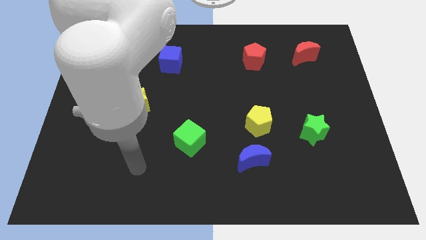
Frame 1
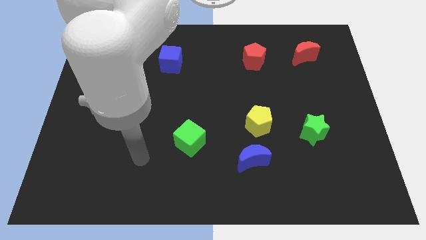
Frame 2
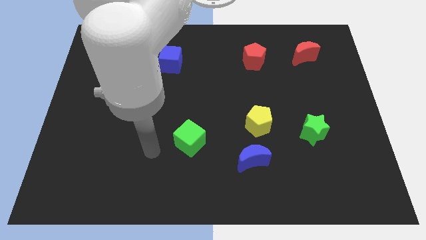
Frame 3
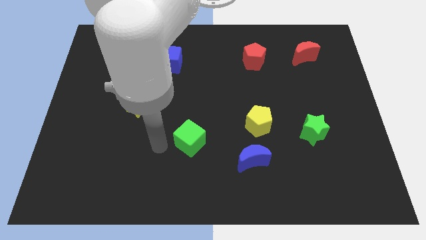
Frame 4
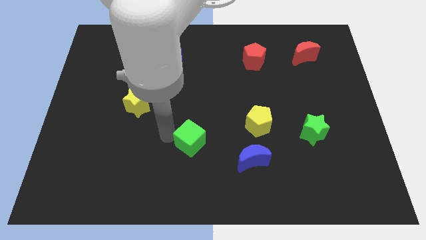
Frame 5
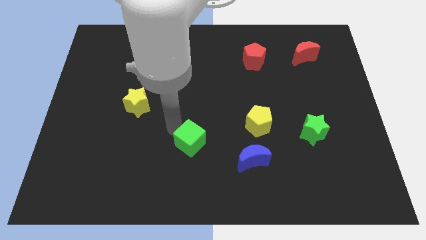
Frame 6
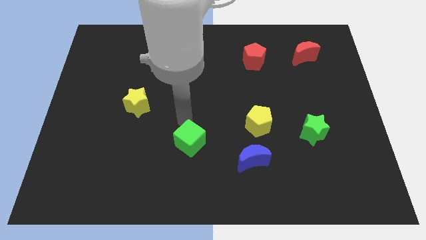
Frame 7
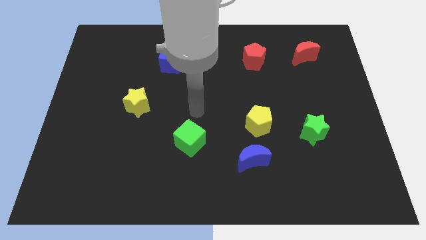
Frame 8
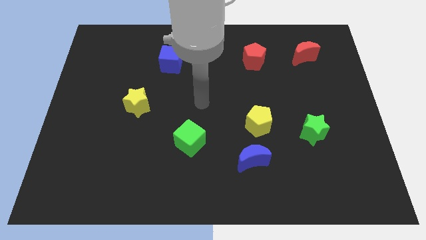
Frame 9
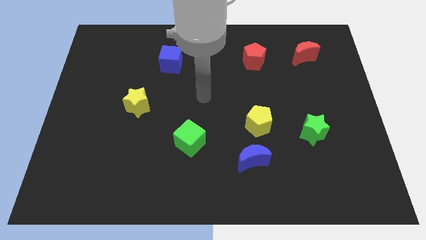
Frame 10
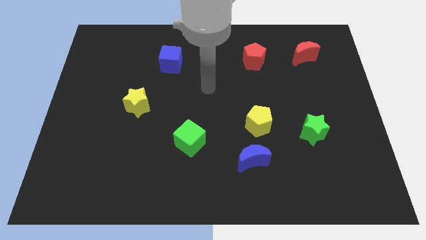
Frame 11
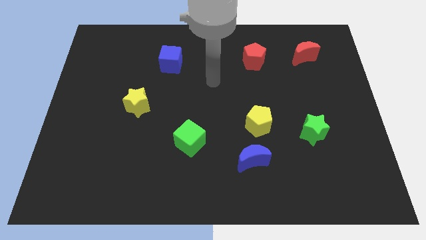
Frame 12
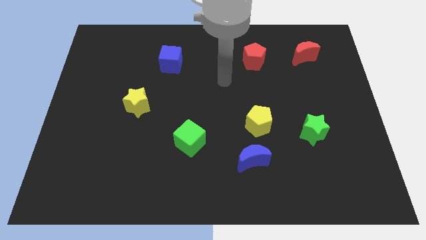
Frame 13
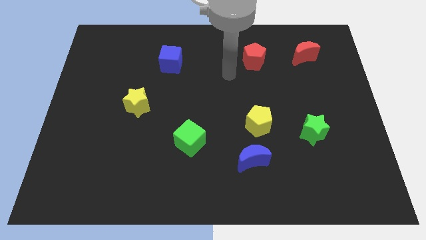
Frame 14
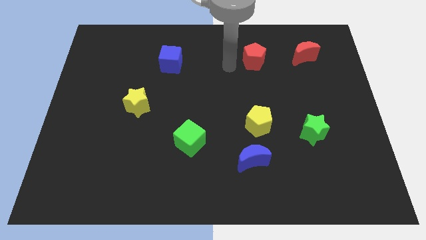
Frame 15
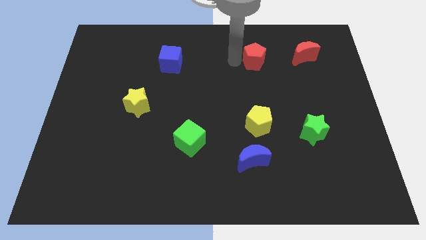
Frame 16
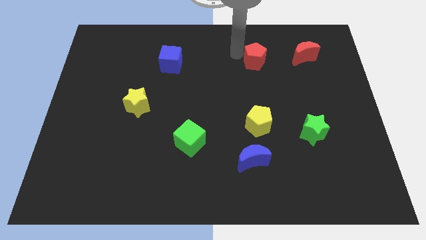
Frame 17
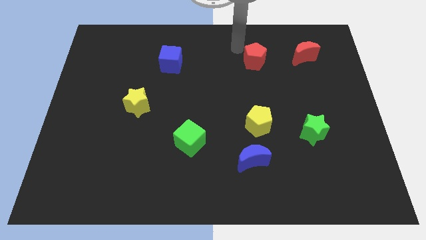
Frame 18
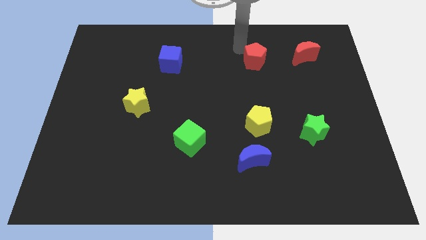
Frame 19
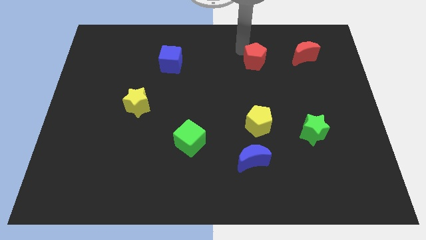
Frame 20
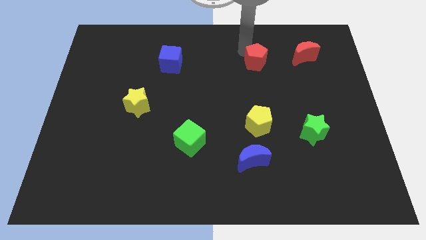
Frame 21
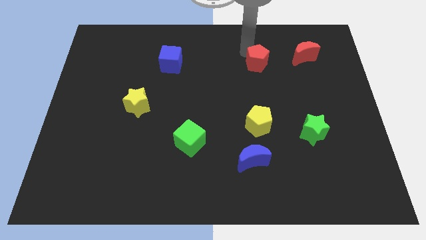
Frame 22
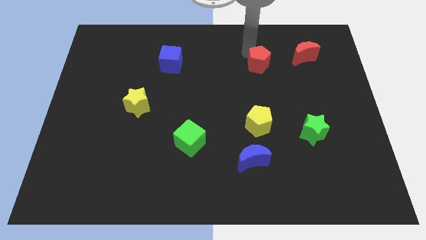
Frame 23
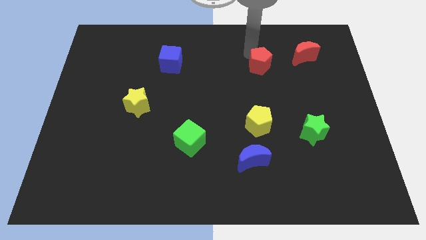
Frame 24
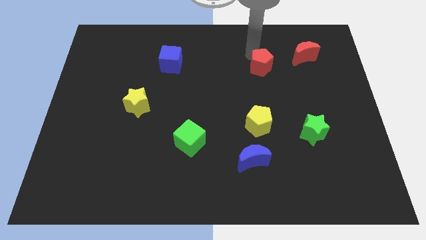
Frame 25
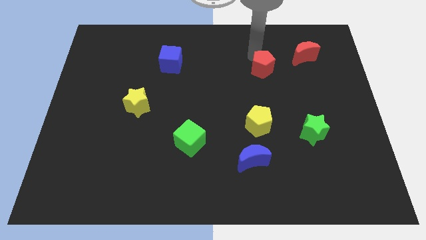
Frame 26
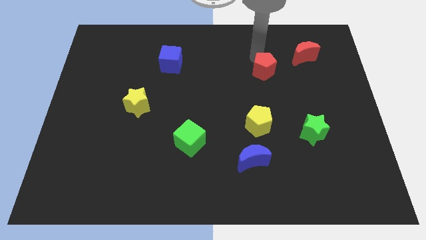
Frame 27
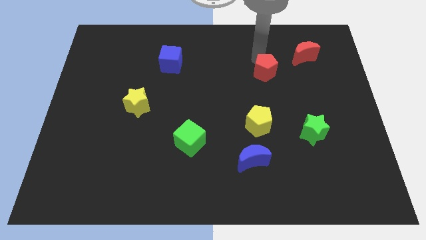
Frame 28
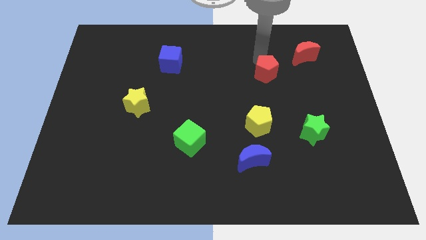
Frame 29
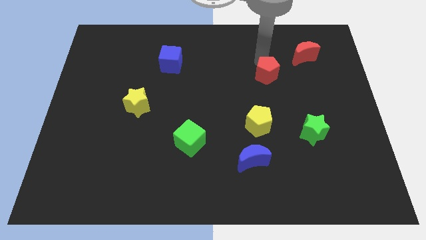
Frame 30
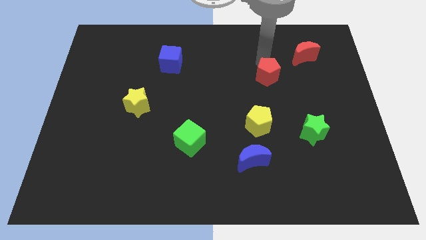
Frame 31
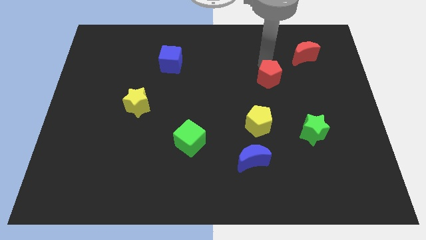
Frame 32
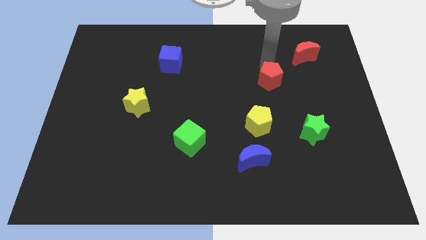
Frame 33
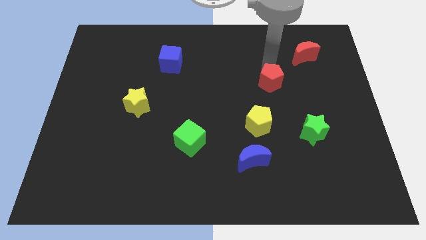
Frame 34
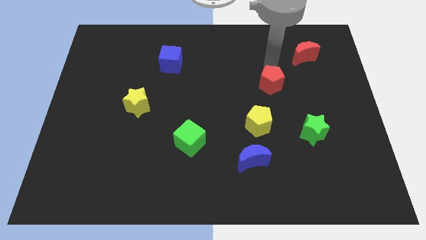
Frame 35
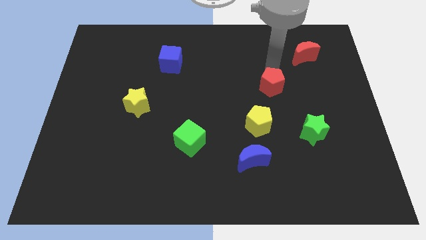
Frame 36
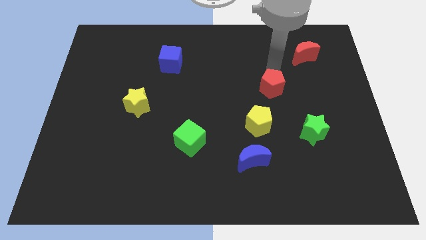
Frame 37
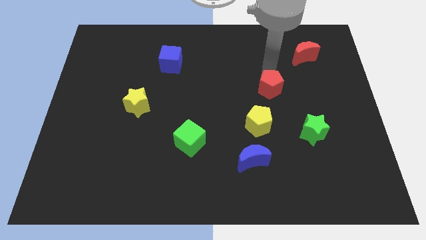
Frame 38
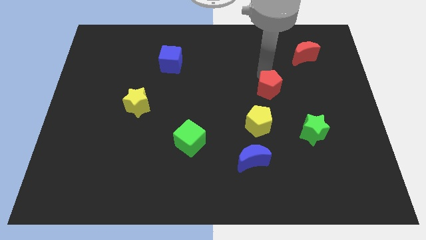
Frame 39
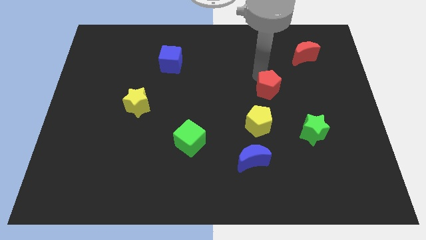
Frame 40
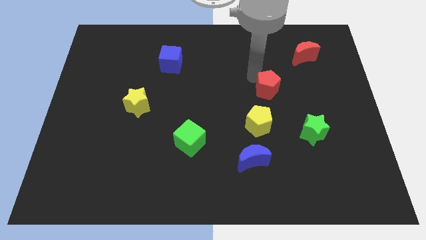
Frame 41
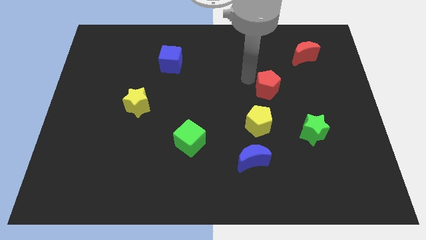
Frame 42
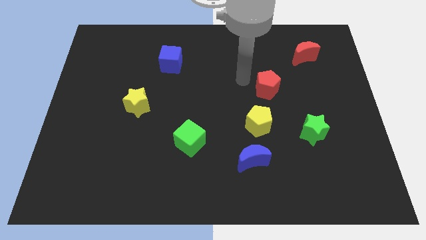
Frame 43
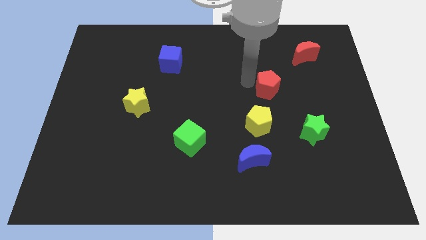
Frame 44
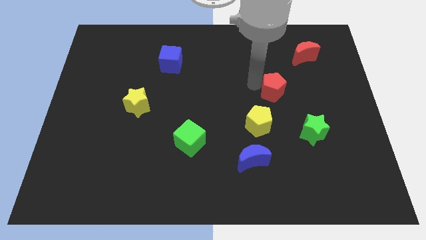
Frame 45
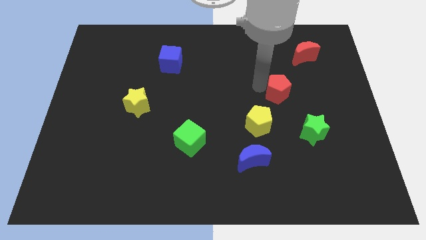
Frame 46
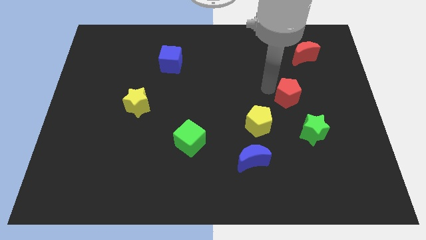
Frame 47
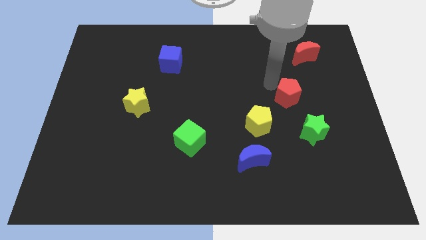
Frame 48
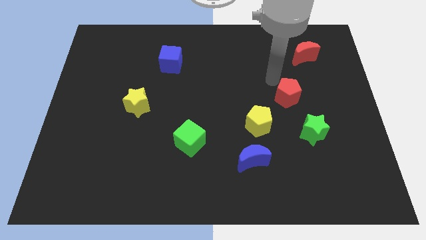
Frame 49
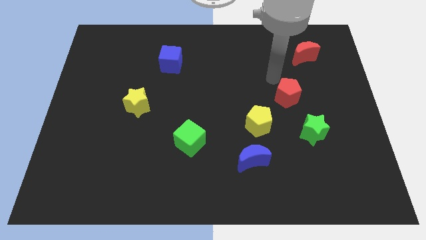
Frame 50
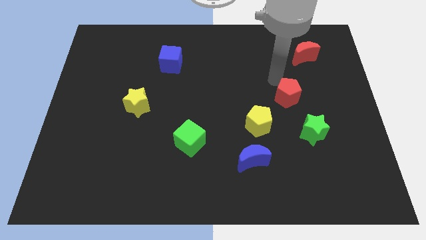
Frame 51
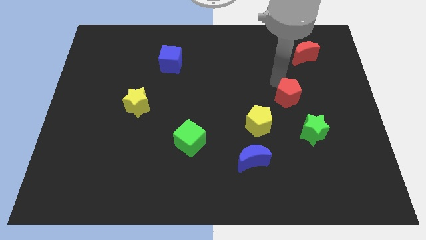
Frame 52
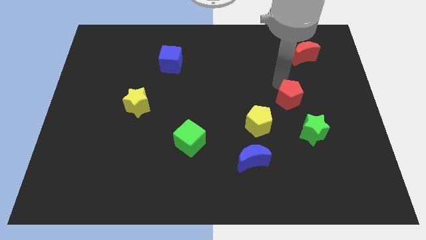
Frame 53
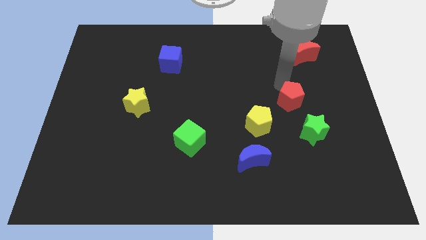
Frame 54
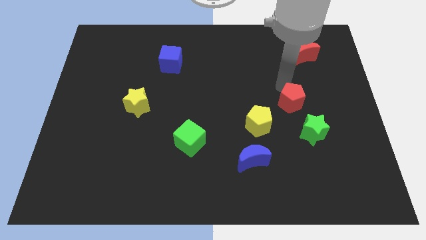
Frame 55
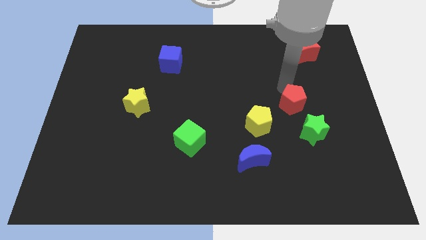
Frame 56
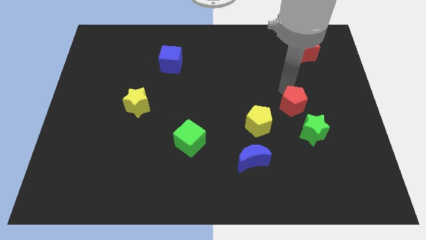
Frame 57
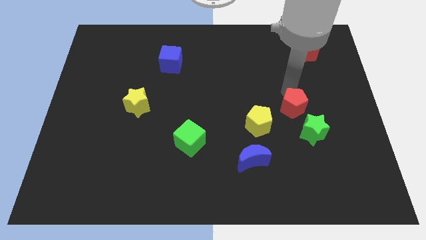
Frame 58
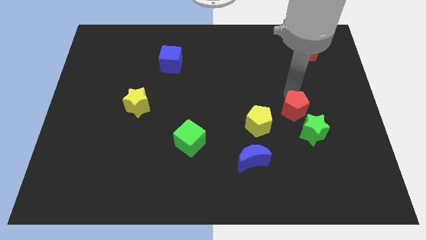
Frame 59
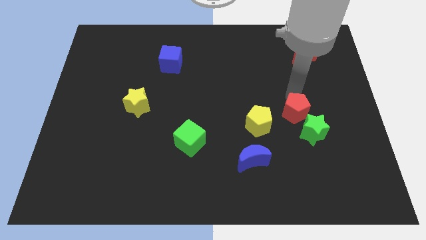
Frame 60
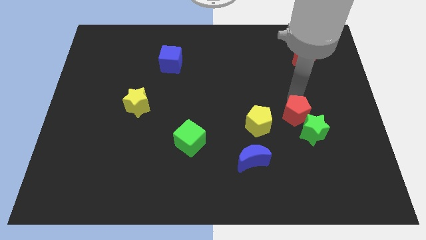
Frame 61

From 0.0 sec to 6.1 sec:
push the red pentagon close to the green star

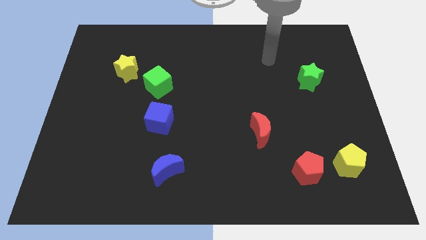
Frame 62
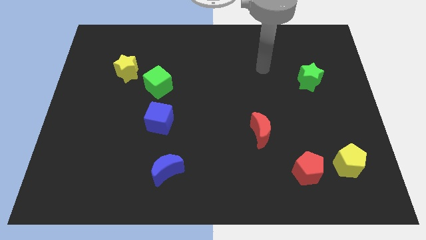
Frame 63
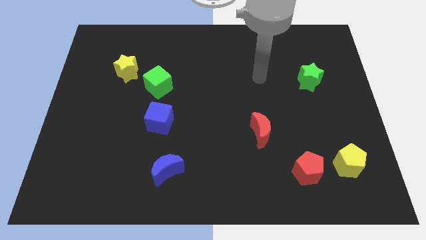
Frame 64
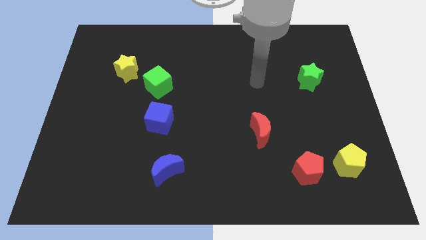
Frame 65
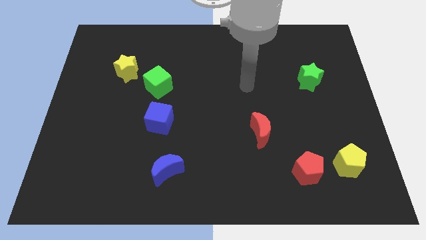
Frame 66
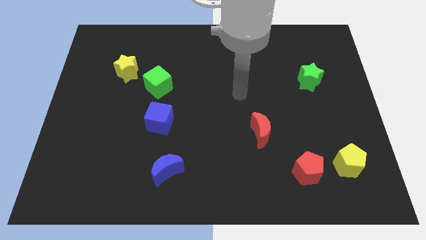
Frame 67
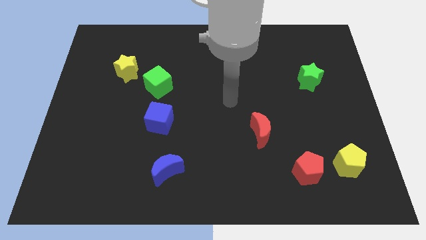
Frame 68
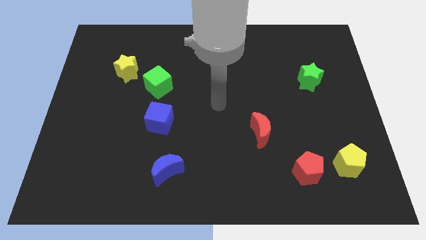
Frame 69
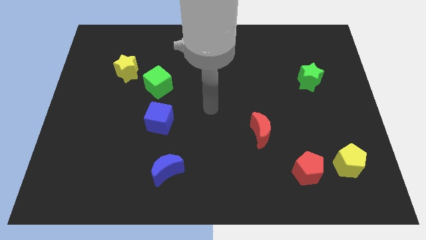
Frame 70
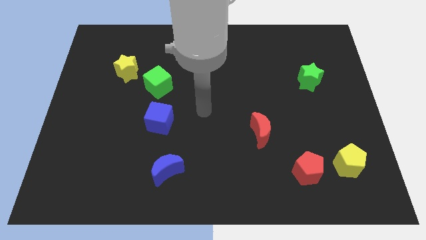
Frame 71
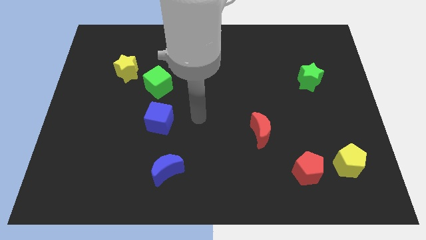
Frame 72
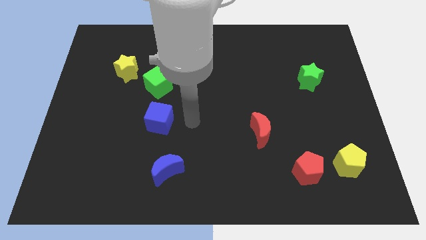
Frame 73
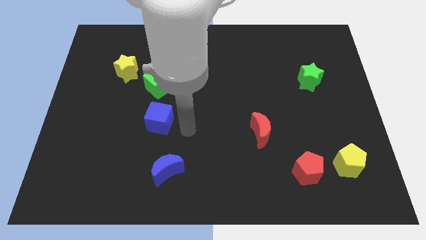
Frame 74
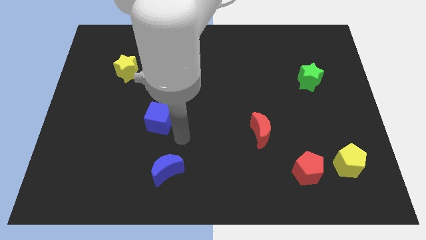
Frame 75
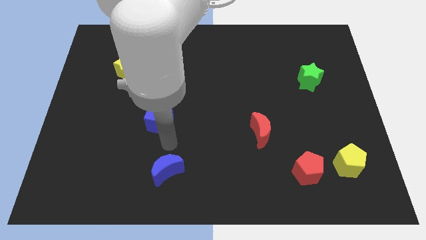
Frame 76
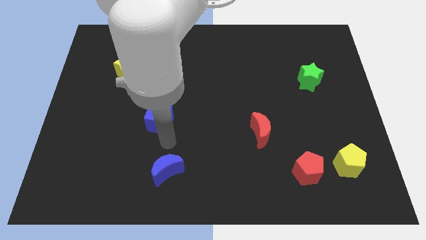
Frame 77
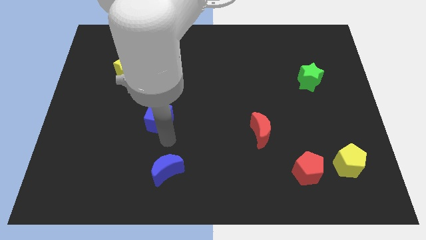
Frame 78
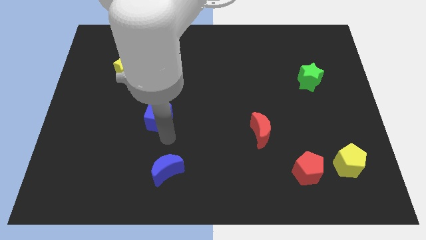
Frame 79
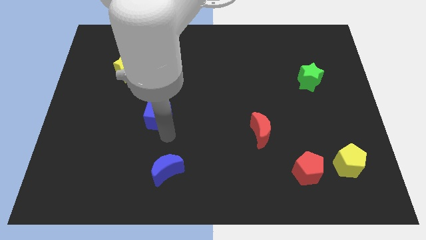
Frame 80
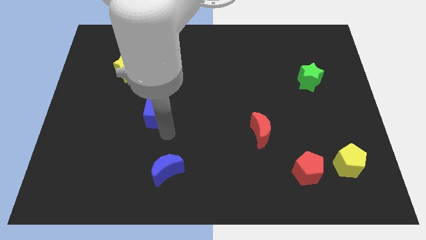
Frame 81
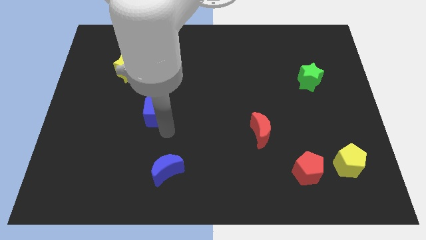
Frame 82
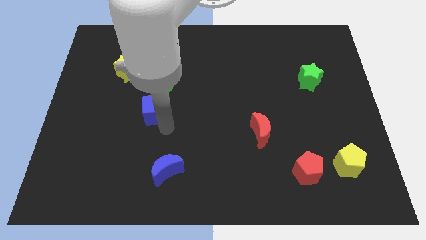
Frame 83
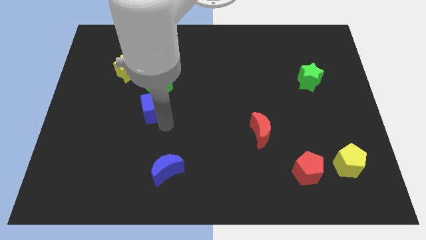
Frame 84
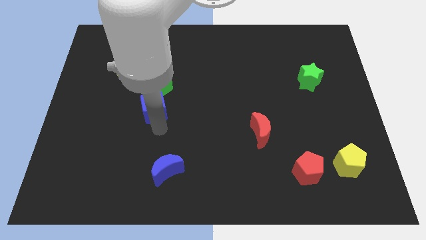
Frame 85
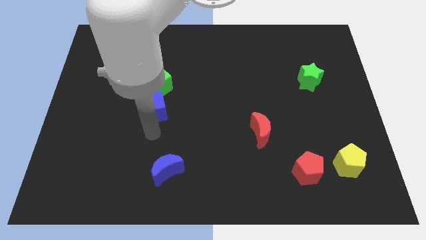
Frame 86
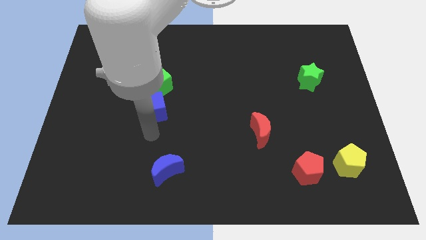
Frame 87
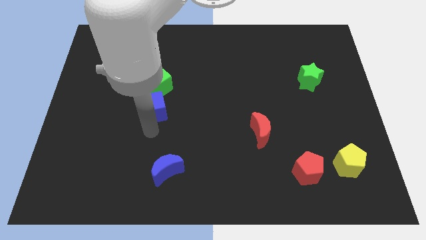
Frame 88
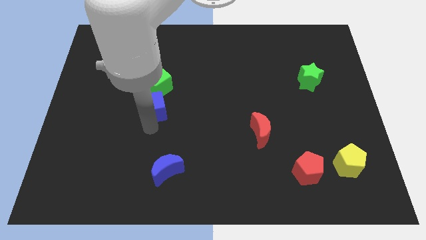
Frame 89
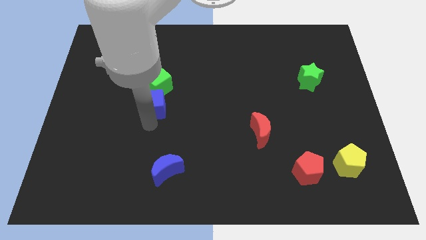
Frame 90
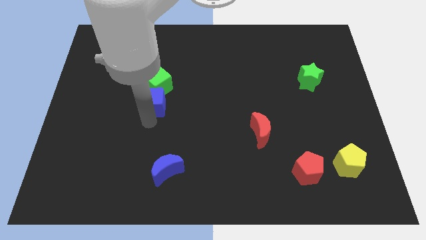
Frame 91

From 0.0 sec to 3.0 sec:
slide the blue cube next to the green cube
